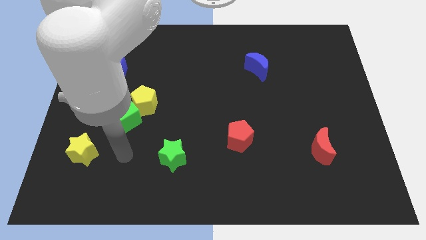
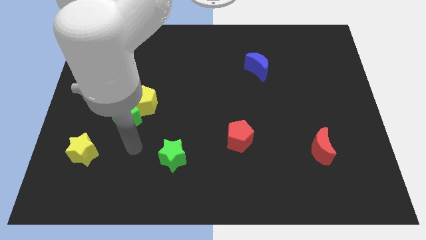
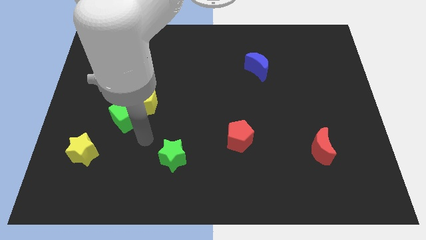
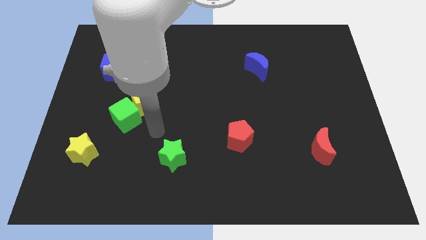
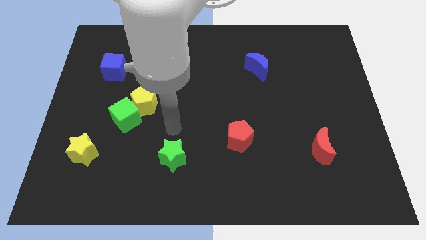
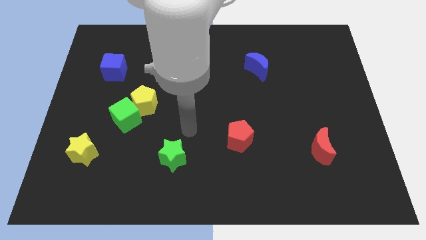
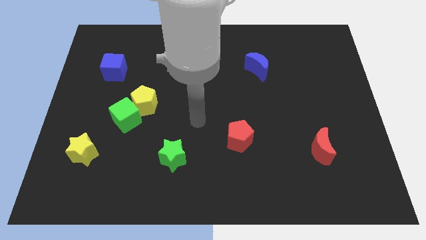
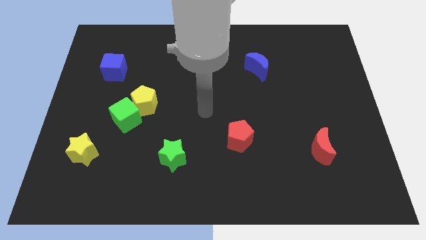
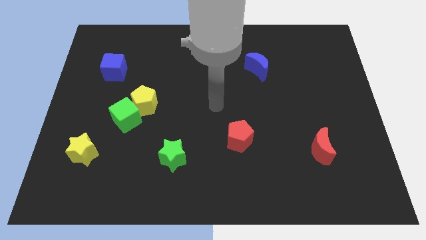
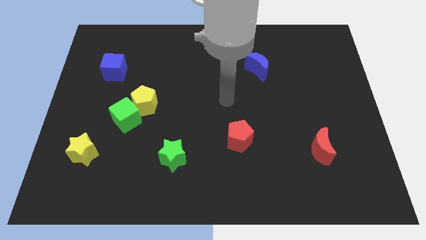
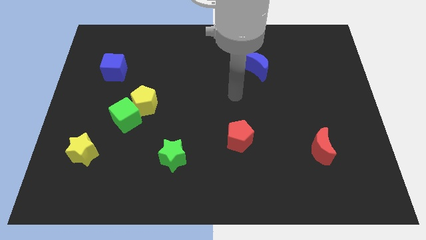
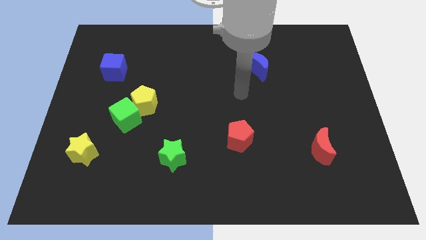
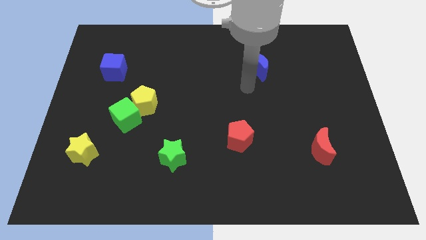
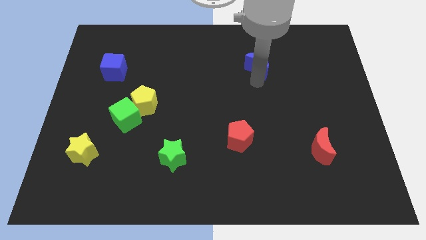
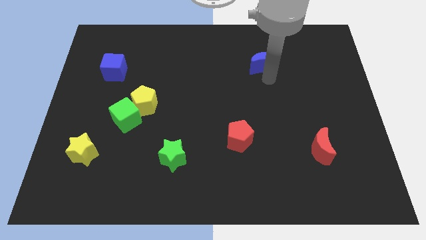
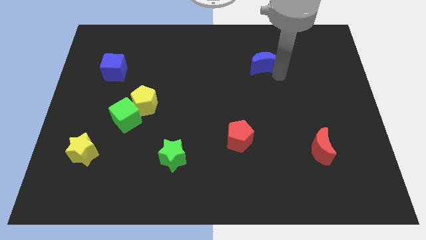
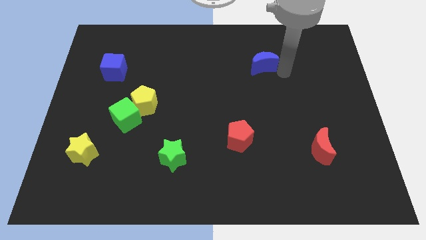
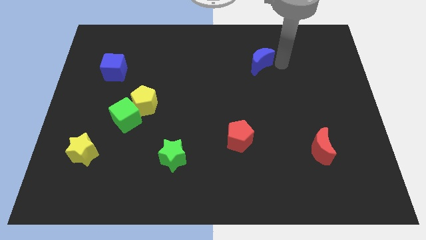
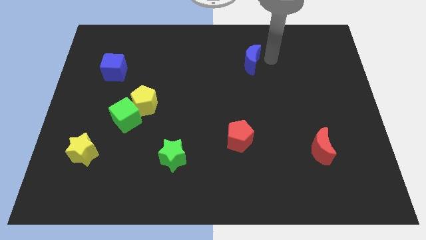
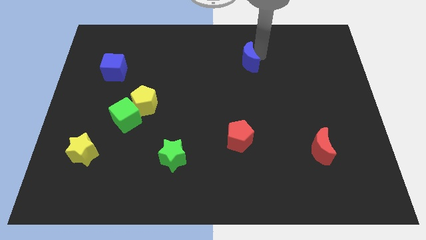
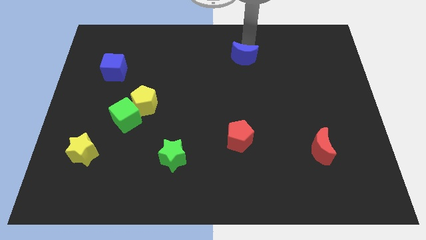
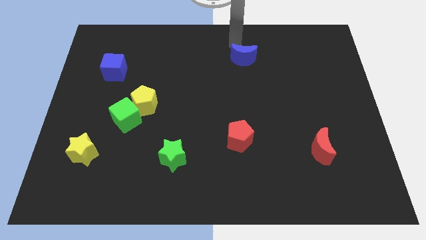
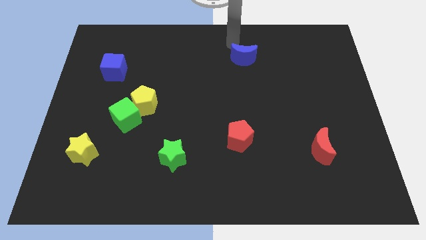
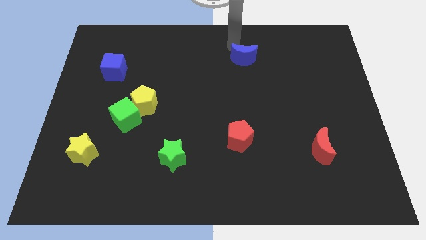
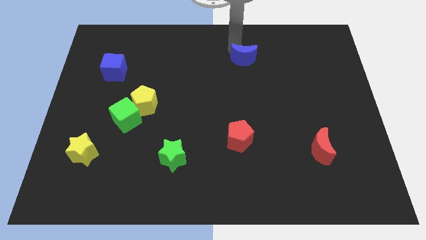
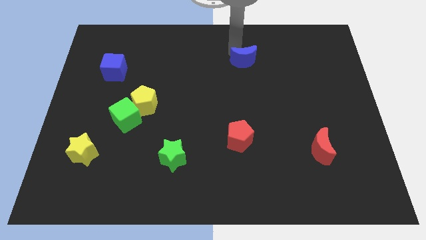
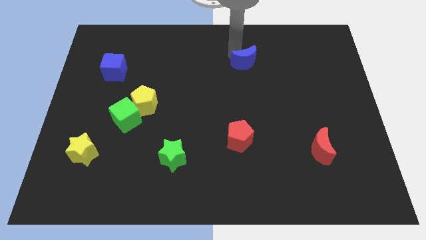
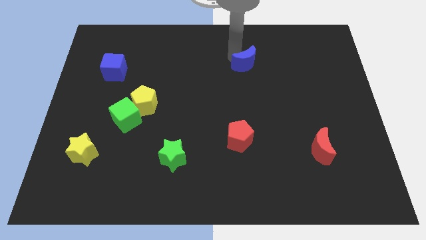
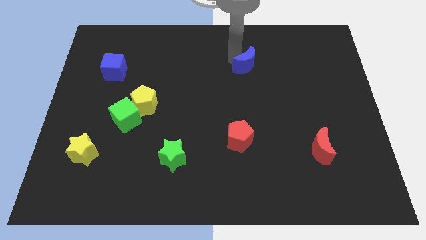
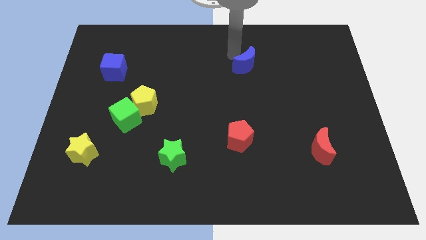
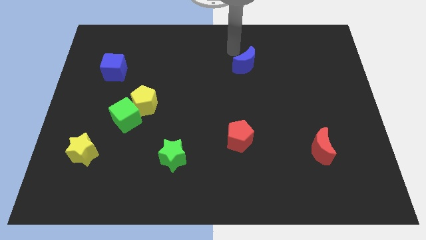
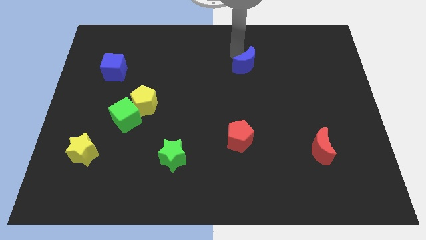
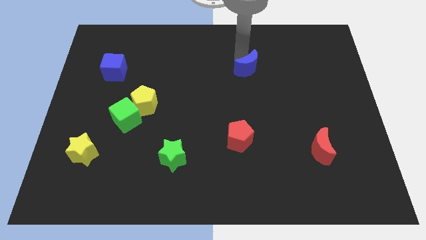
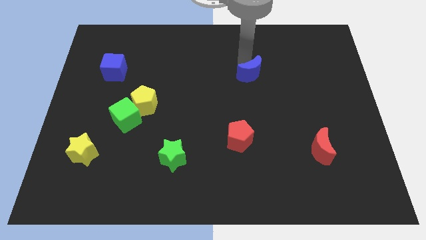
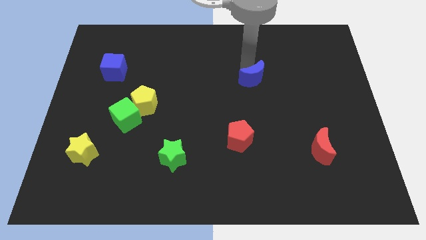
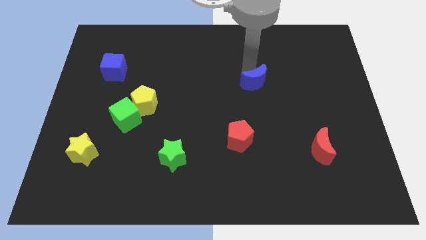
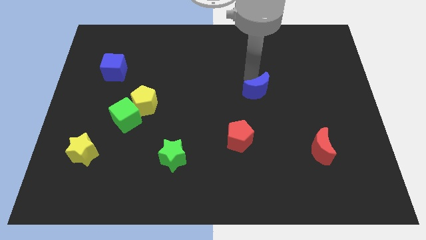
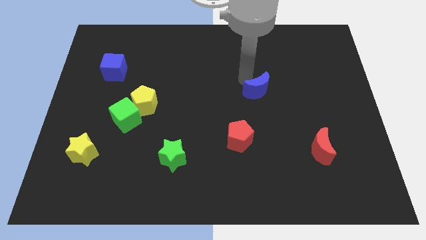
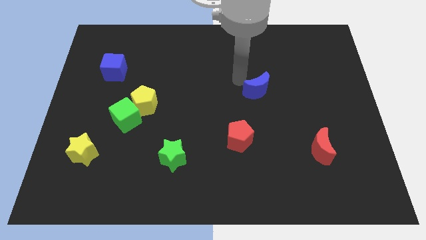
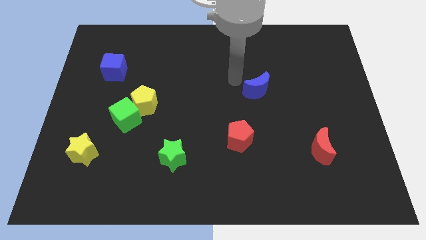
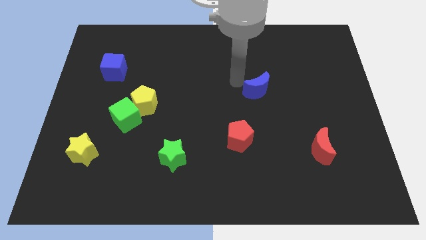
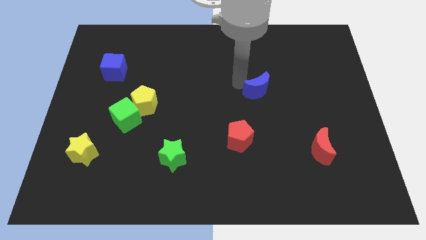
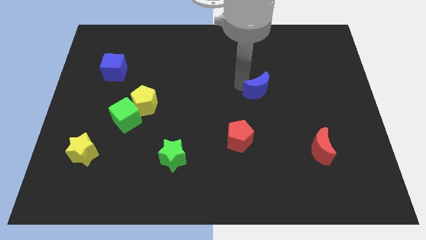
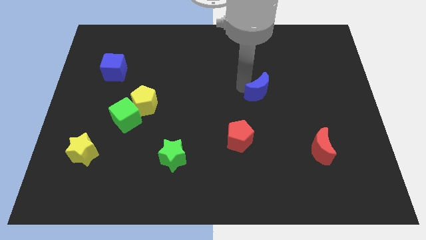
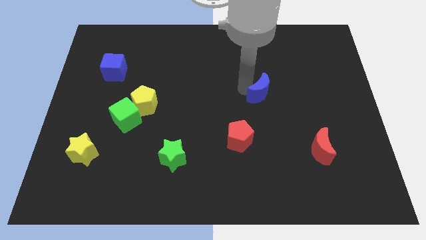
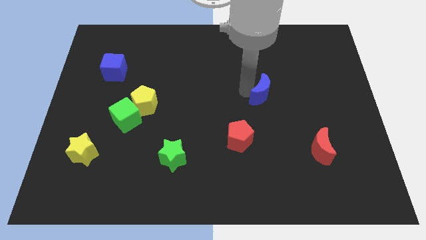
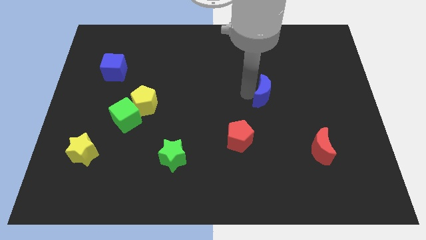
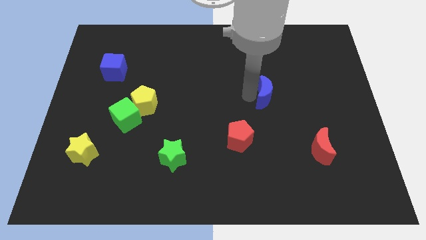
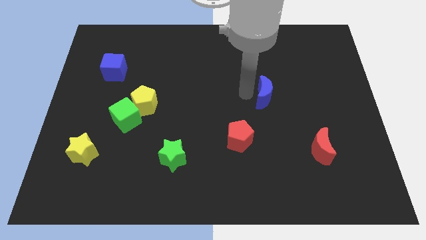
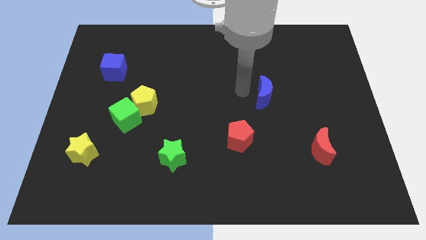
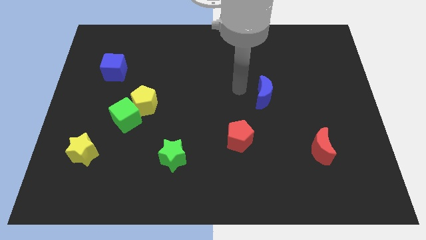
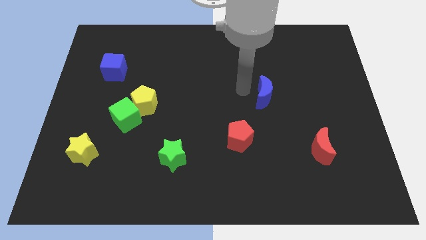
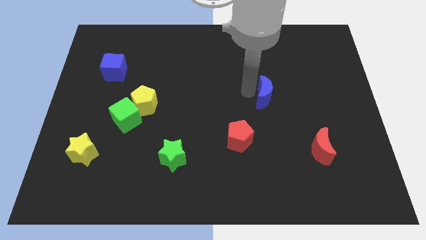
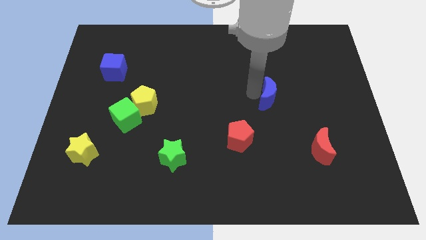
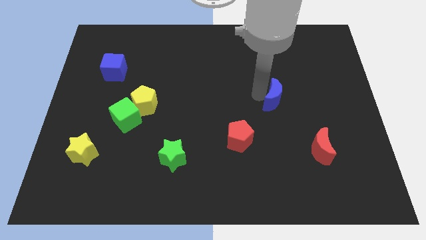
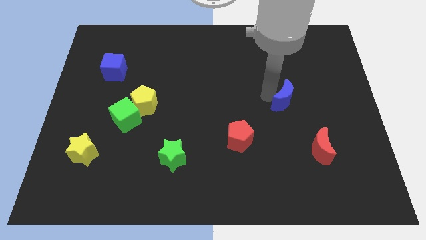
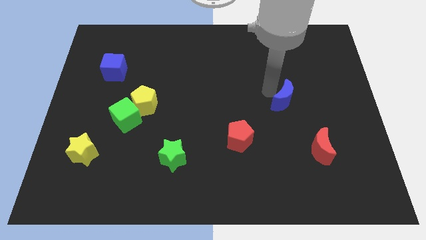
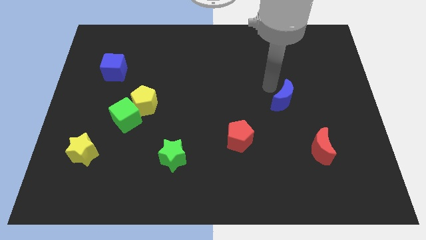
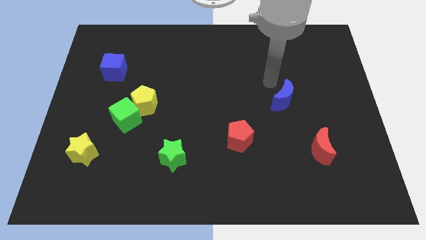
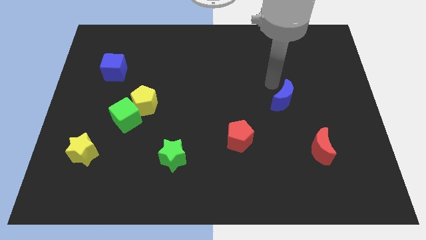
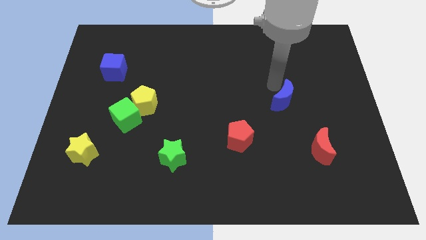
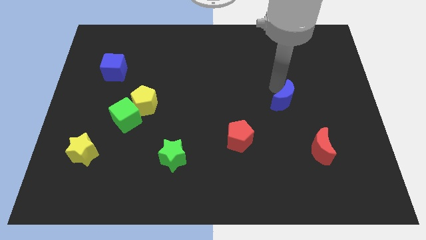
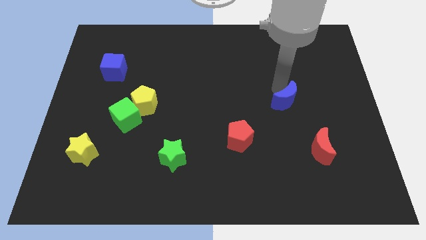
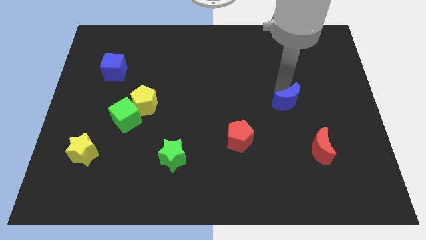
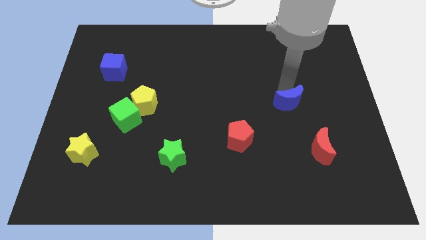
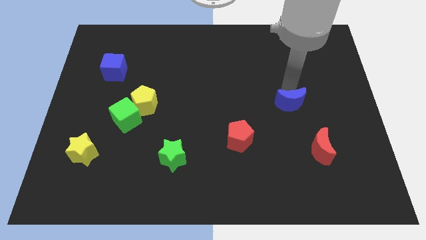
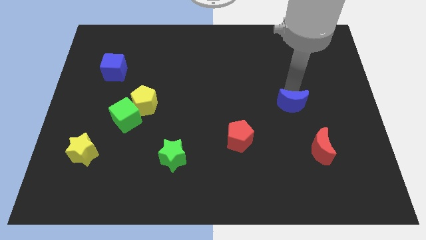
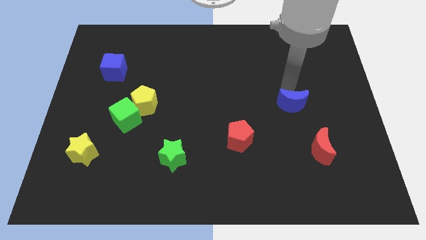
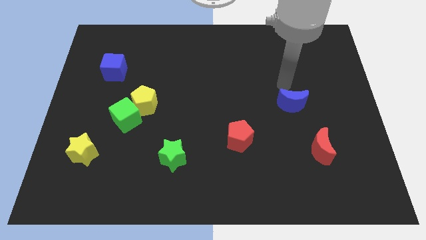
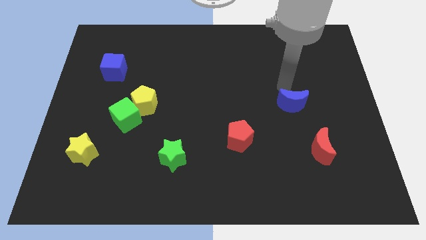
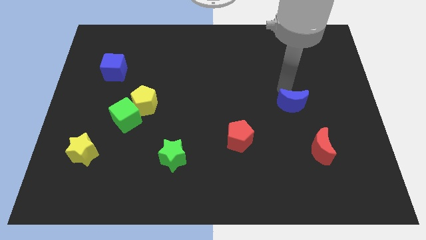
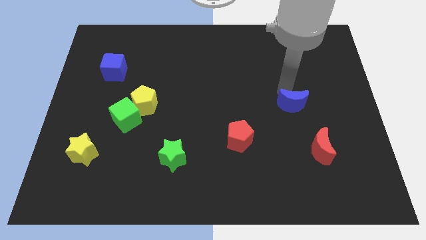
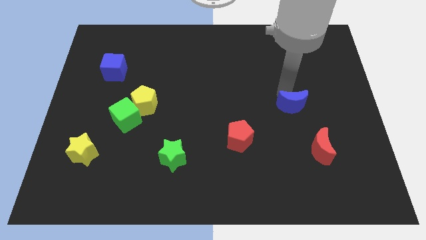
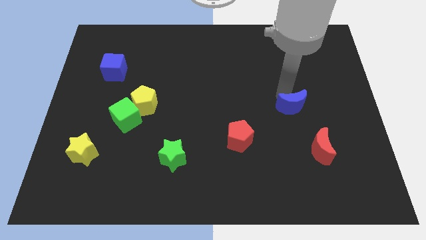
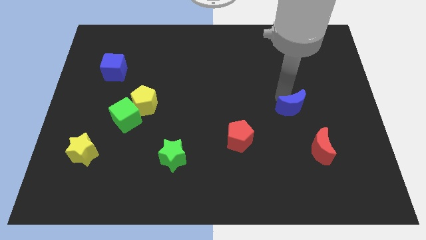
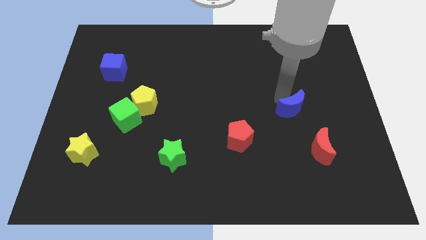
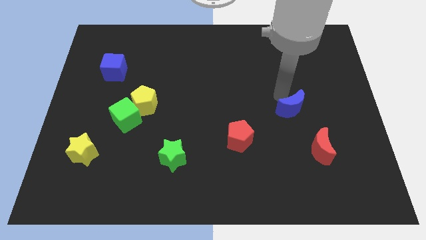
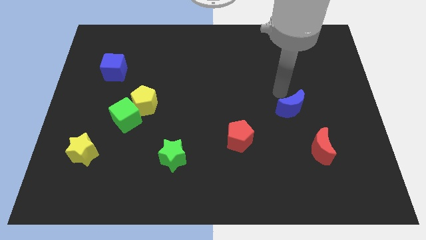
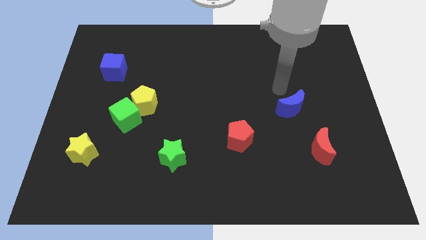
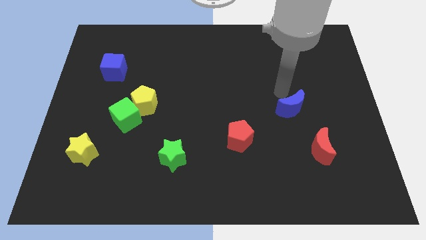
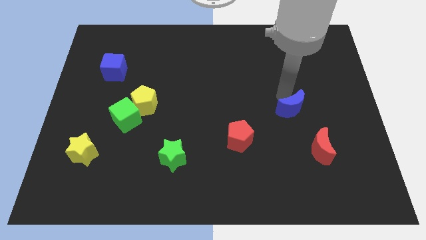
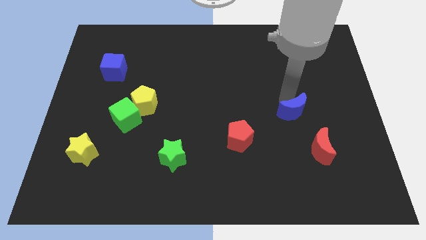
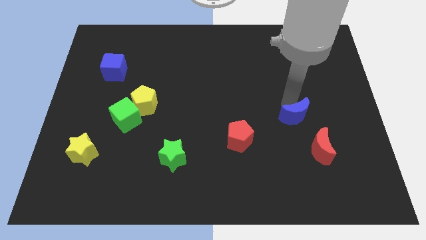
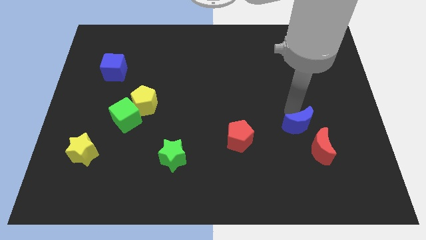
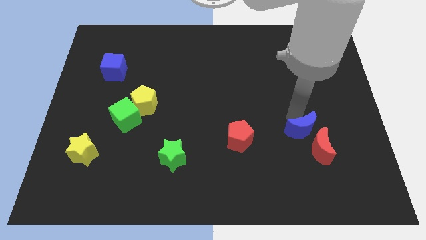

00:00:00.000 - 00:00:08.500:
put the blue moon to the red moon
